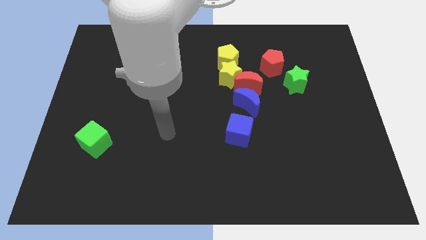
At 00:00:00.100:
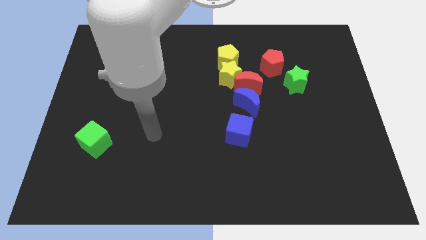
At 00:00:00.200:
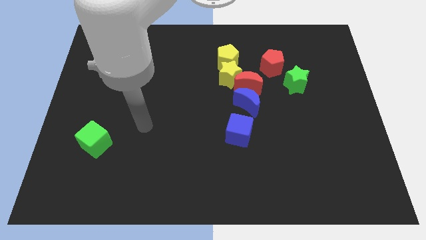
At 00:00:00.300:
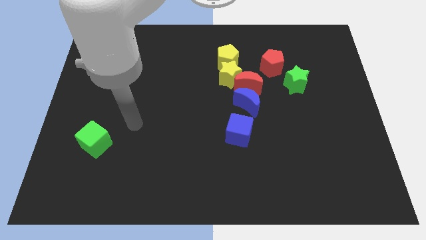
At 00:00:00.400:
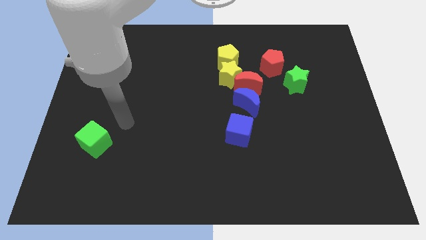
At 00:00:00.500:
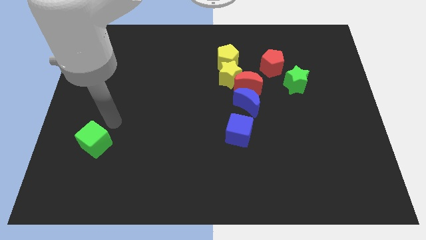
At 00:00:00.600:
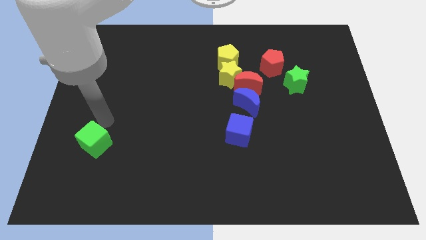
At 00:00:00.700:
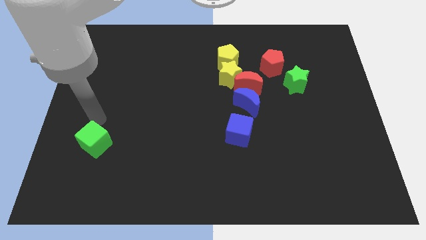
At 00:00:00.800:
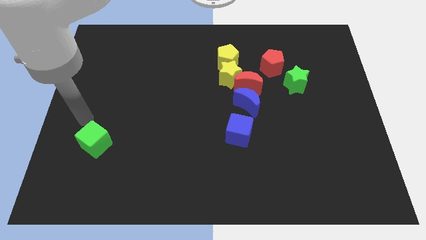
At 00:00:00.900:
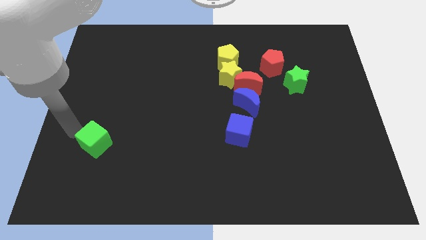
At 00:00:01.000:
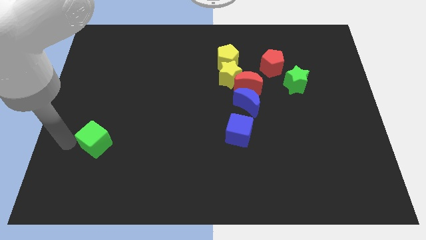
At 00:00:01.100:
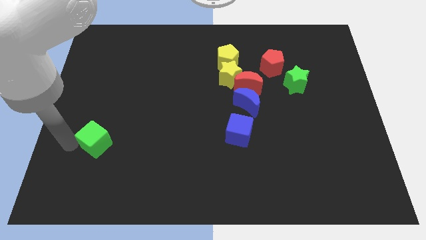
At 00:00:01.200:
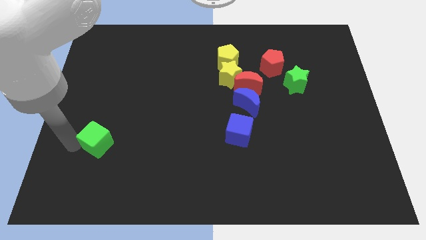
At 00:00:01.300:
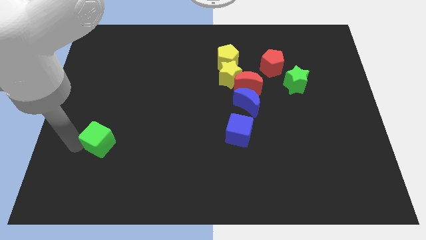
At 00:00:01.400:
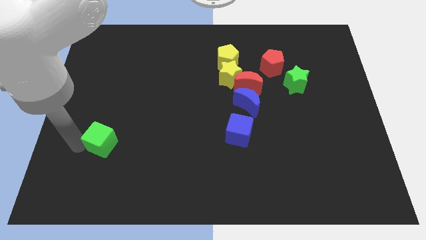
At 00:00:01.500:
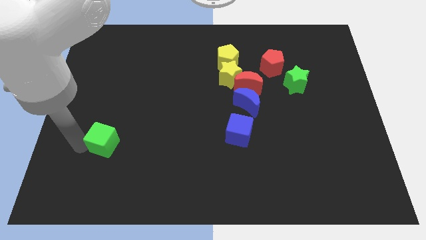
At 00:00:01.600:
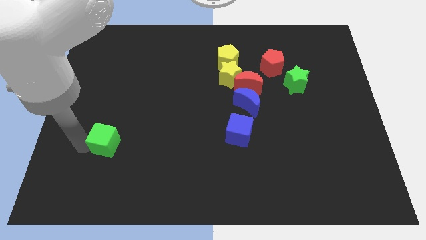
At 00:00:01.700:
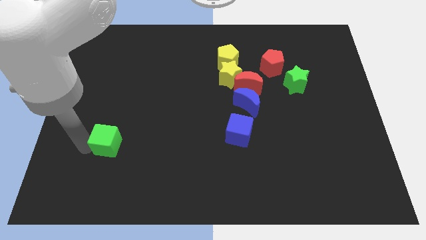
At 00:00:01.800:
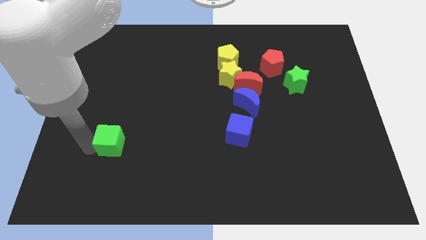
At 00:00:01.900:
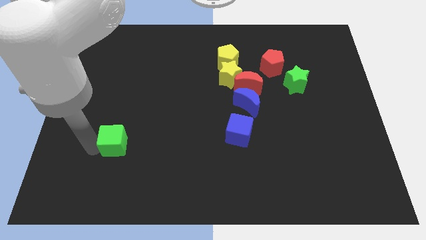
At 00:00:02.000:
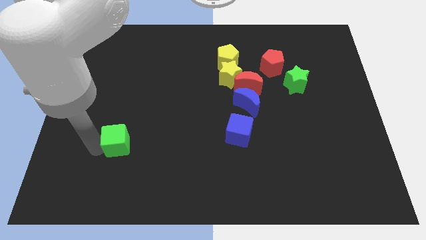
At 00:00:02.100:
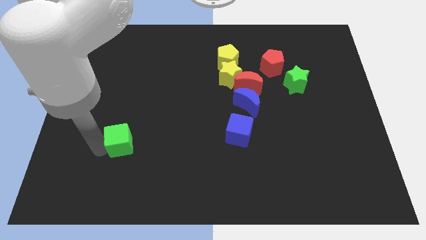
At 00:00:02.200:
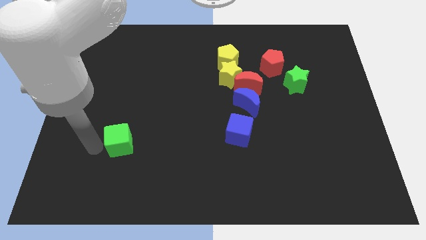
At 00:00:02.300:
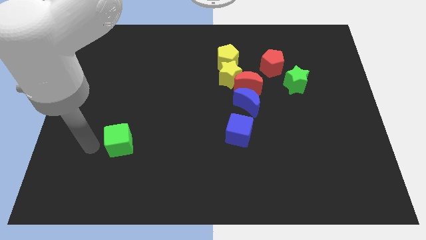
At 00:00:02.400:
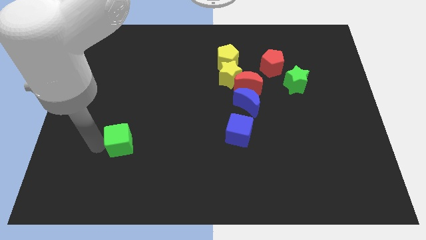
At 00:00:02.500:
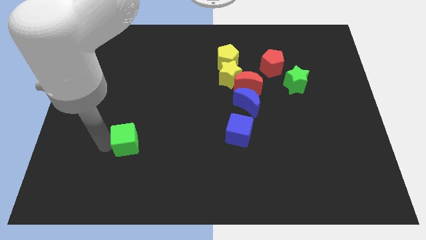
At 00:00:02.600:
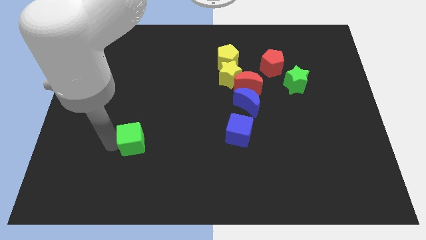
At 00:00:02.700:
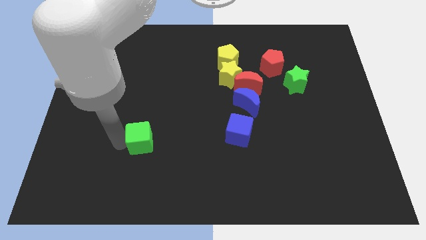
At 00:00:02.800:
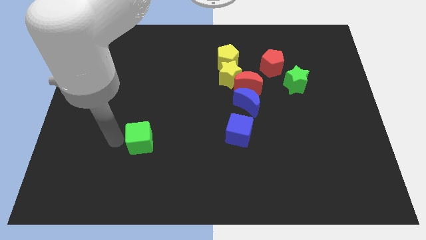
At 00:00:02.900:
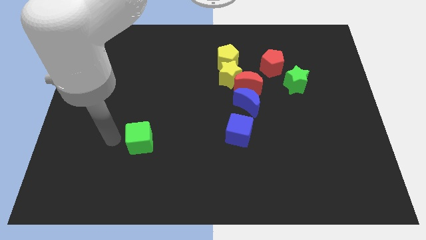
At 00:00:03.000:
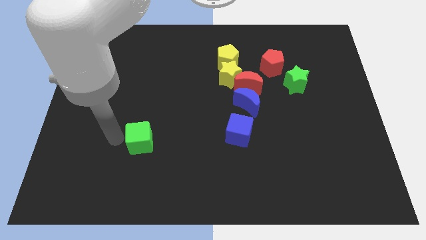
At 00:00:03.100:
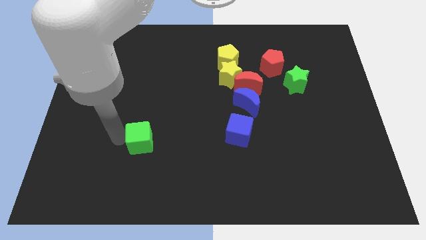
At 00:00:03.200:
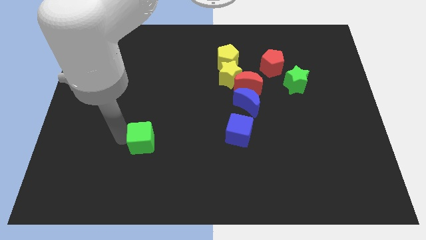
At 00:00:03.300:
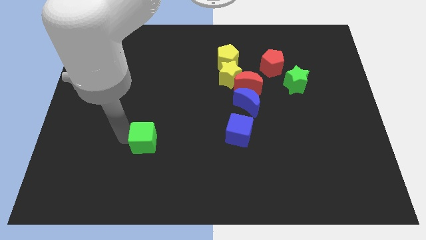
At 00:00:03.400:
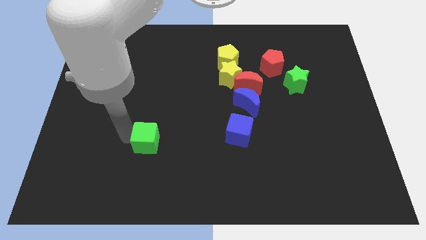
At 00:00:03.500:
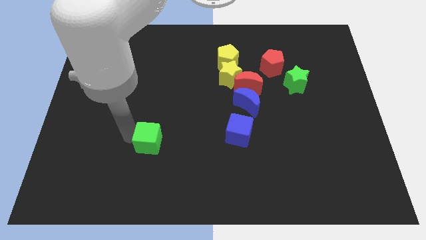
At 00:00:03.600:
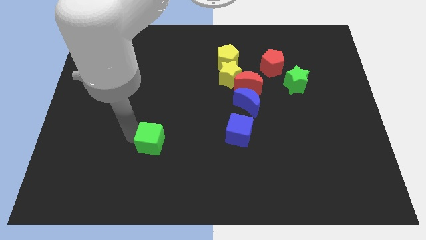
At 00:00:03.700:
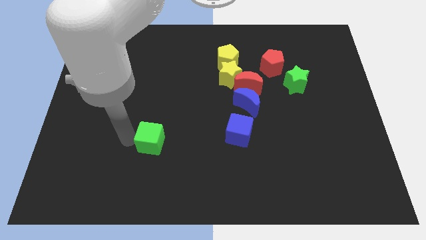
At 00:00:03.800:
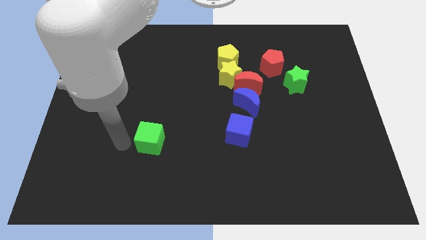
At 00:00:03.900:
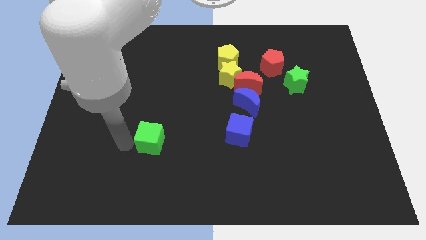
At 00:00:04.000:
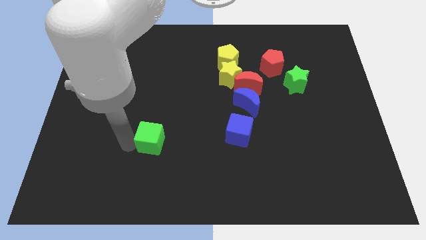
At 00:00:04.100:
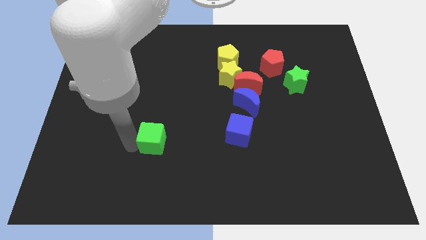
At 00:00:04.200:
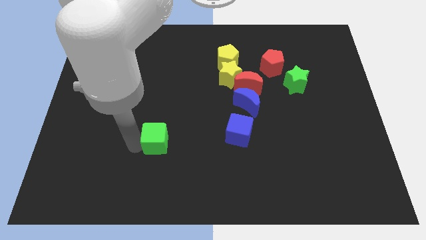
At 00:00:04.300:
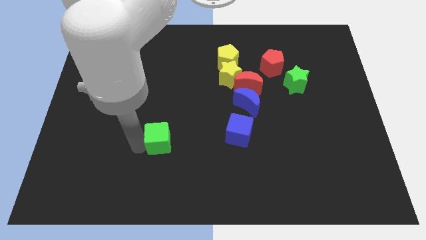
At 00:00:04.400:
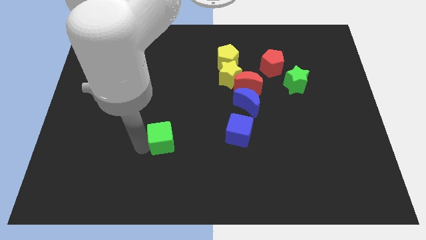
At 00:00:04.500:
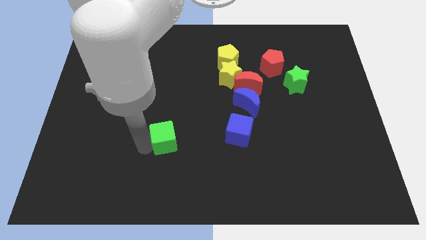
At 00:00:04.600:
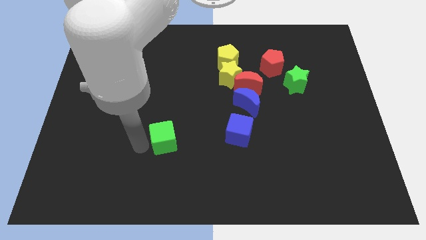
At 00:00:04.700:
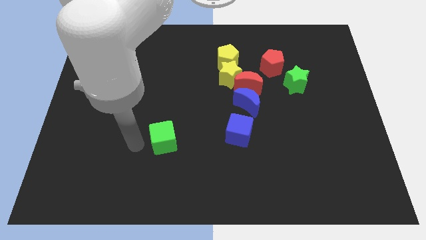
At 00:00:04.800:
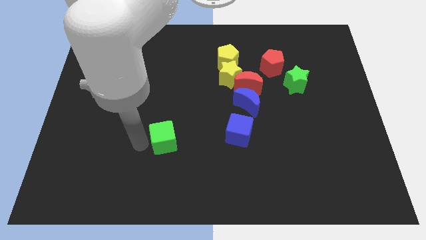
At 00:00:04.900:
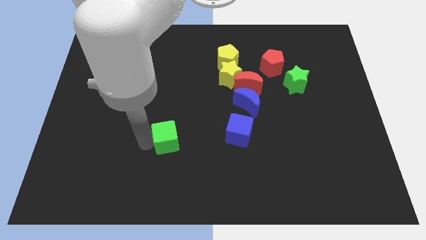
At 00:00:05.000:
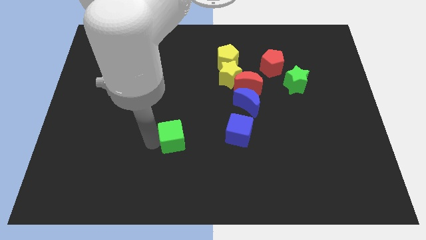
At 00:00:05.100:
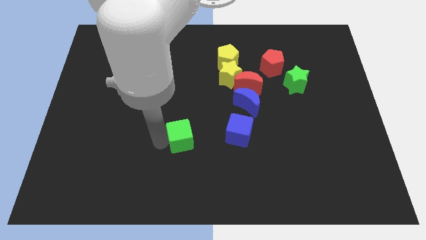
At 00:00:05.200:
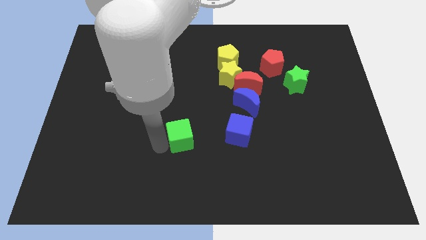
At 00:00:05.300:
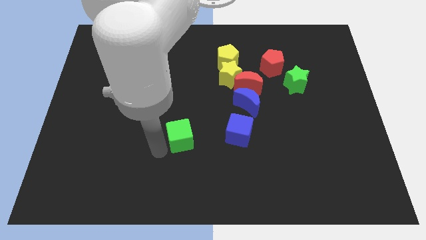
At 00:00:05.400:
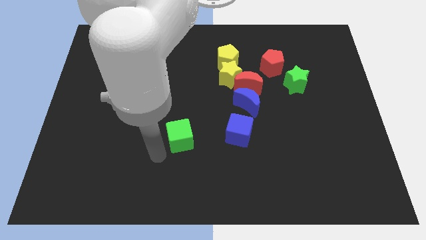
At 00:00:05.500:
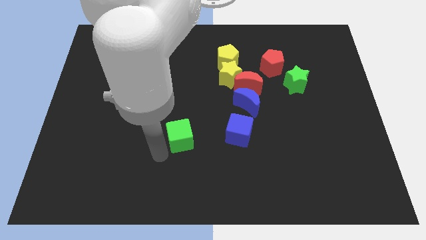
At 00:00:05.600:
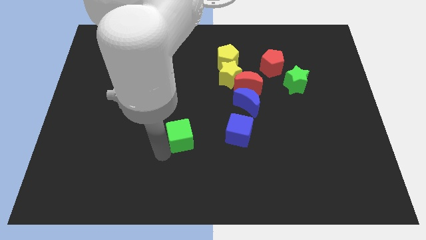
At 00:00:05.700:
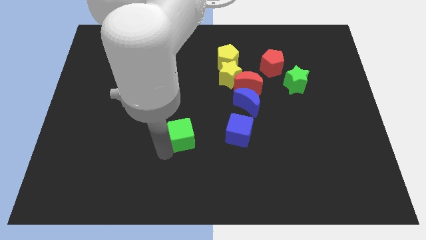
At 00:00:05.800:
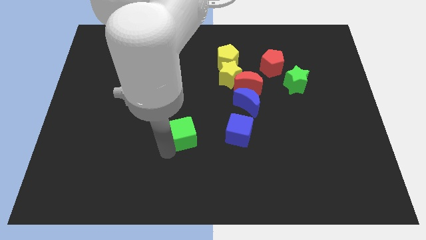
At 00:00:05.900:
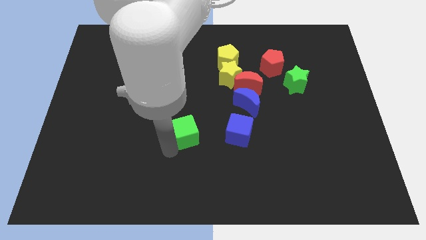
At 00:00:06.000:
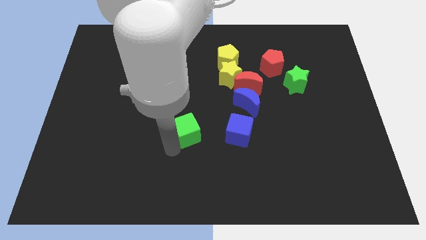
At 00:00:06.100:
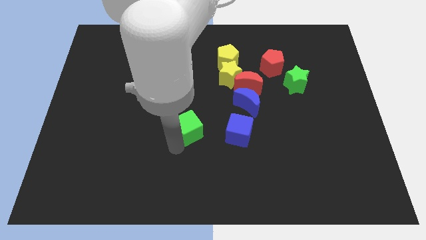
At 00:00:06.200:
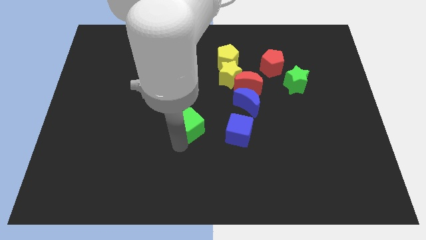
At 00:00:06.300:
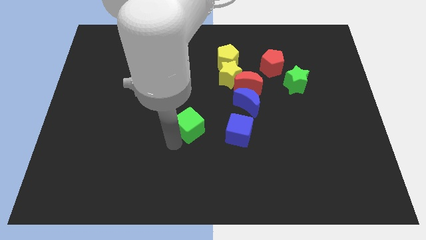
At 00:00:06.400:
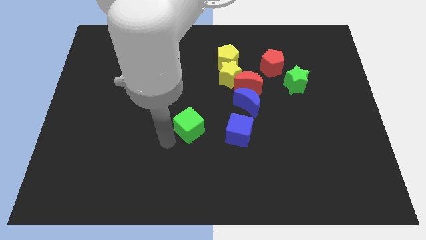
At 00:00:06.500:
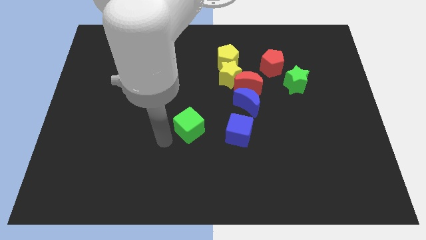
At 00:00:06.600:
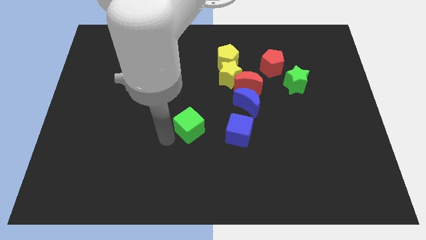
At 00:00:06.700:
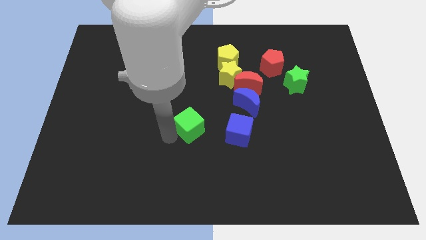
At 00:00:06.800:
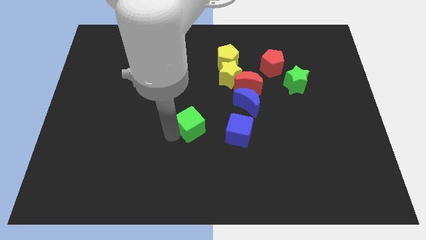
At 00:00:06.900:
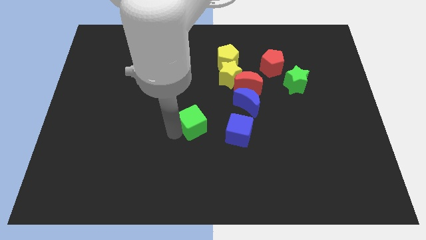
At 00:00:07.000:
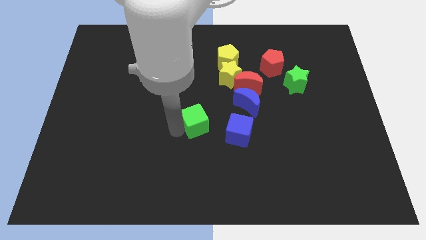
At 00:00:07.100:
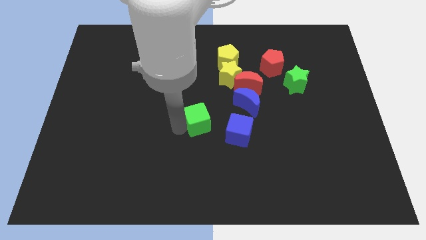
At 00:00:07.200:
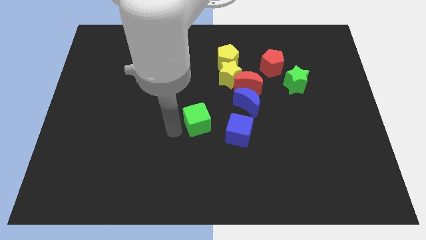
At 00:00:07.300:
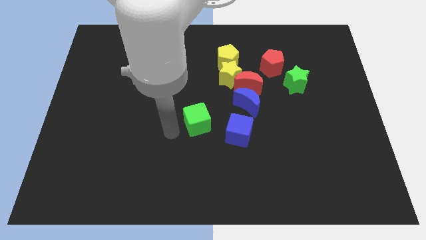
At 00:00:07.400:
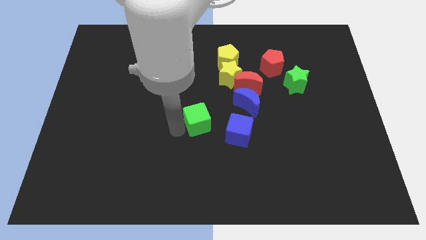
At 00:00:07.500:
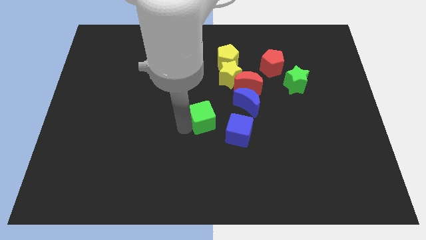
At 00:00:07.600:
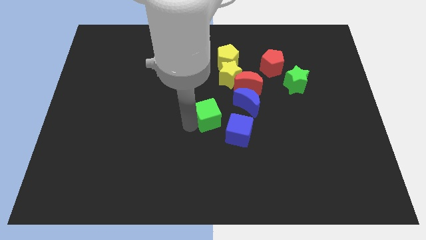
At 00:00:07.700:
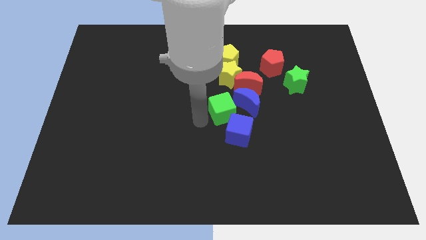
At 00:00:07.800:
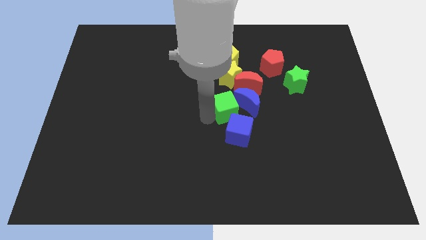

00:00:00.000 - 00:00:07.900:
move the green cube towards the blue moon

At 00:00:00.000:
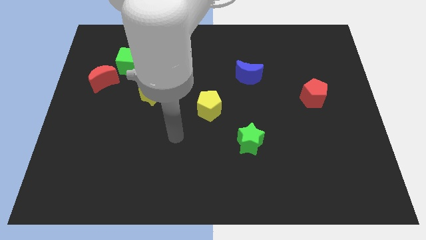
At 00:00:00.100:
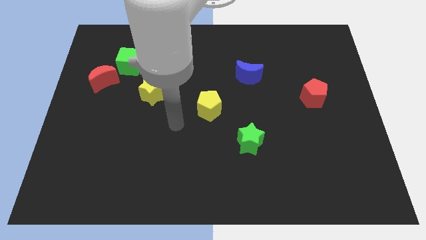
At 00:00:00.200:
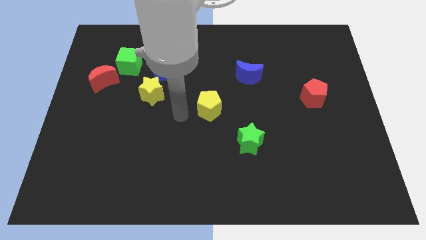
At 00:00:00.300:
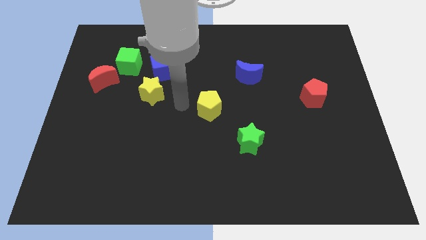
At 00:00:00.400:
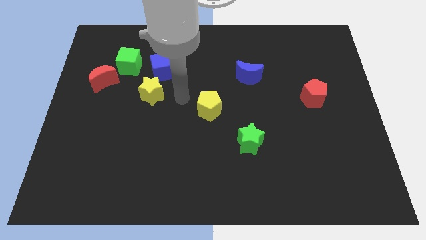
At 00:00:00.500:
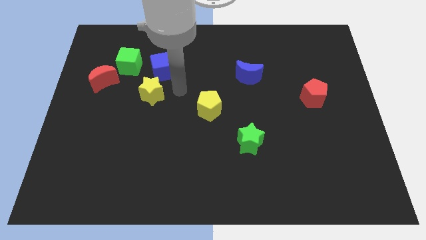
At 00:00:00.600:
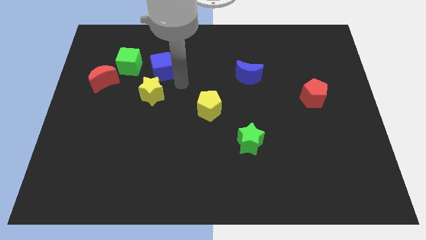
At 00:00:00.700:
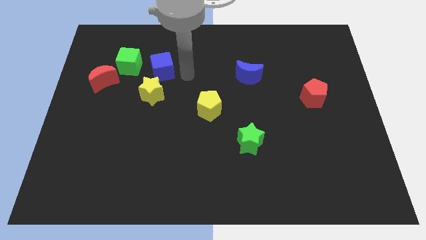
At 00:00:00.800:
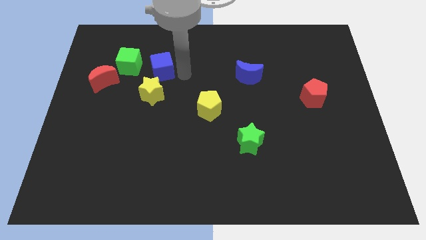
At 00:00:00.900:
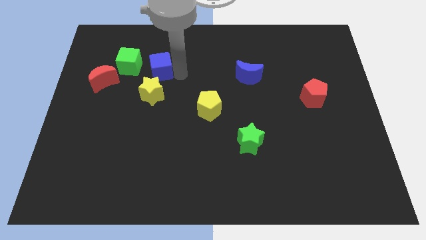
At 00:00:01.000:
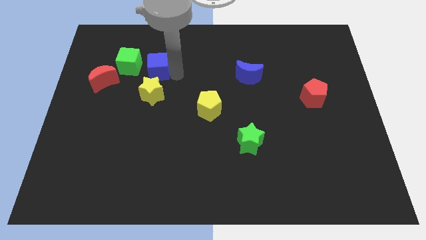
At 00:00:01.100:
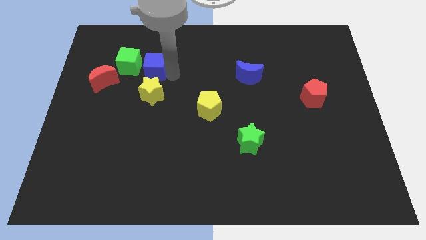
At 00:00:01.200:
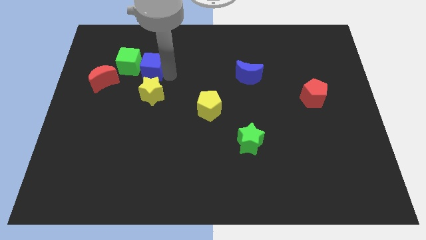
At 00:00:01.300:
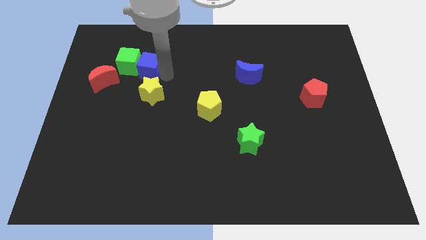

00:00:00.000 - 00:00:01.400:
move the blue cube to the green cube
